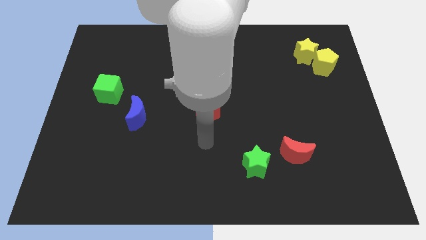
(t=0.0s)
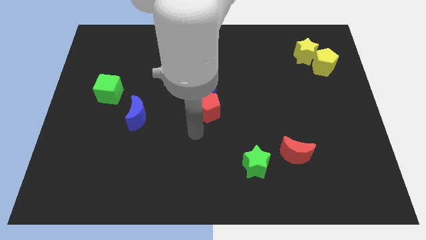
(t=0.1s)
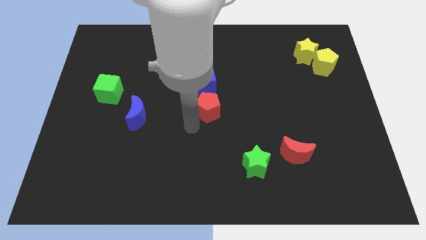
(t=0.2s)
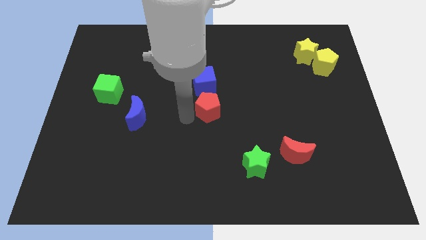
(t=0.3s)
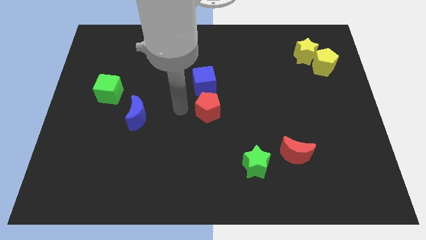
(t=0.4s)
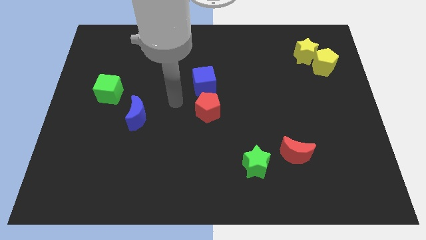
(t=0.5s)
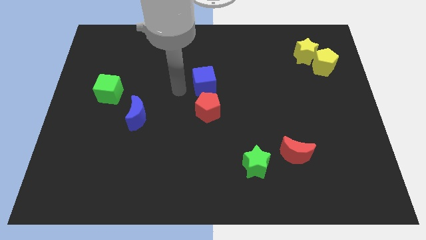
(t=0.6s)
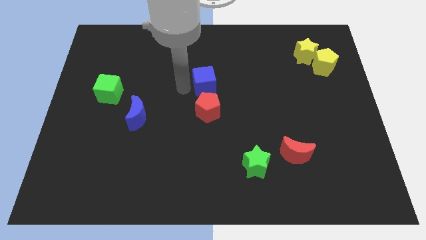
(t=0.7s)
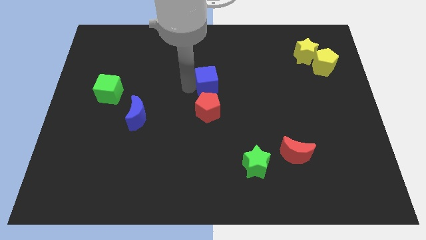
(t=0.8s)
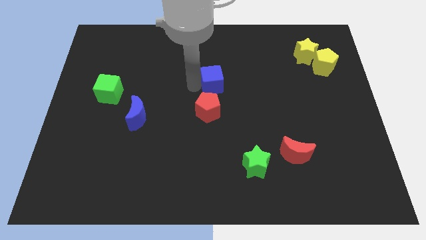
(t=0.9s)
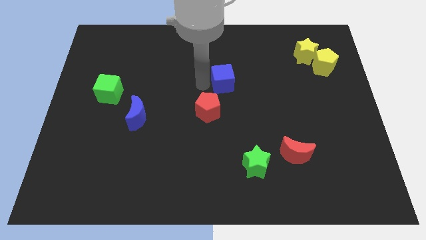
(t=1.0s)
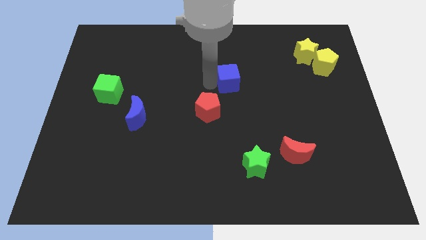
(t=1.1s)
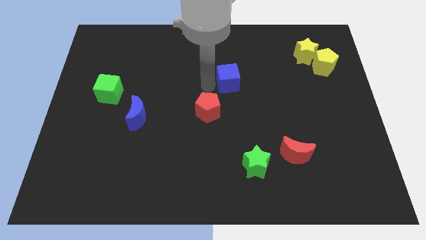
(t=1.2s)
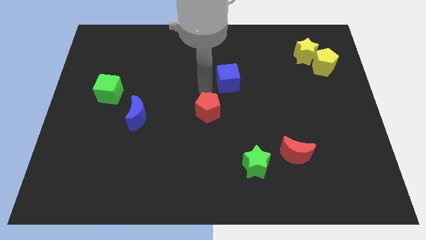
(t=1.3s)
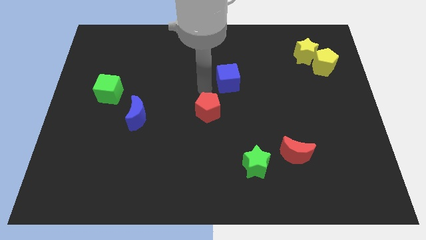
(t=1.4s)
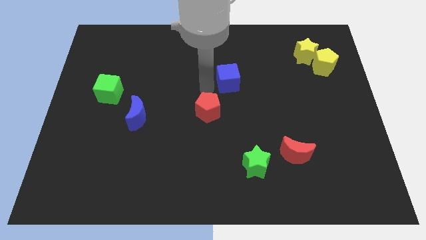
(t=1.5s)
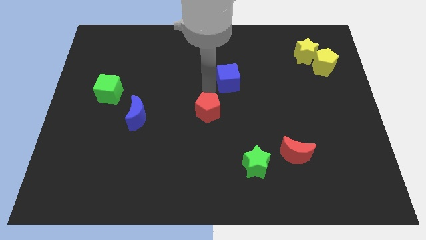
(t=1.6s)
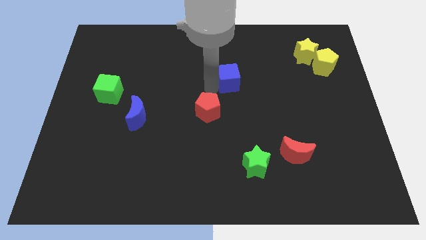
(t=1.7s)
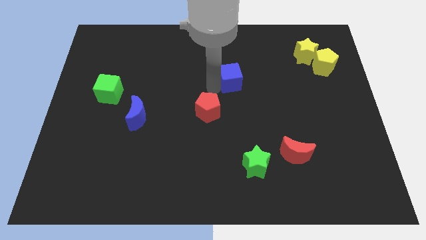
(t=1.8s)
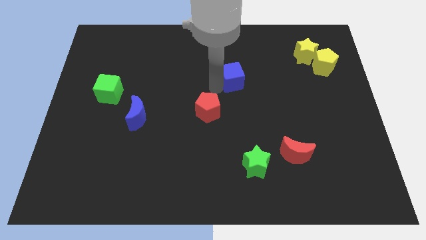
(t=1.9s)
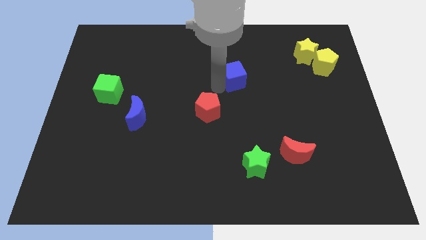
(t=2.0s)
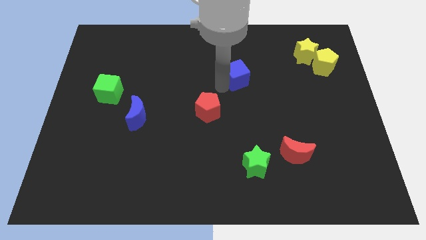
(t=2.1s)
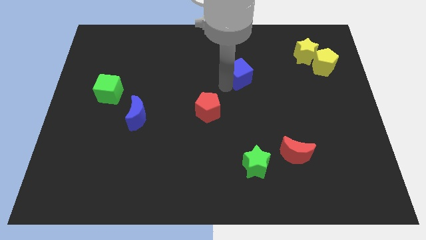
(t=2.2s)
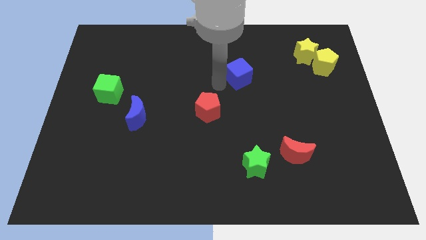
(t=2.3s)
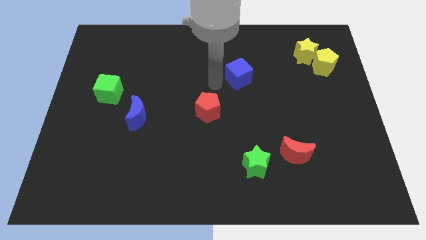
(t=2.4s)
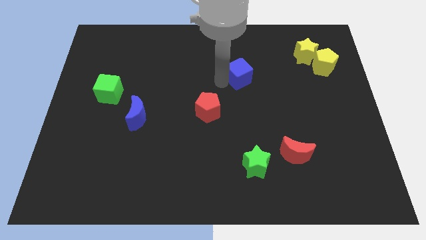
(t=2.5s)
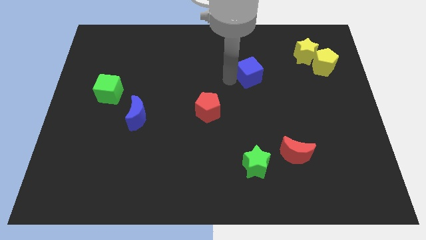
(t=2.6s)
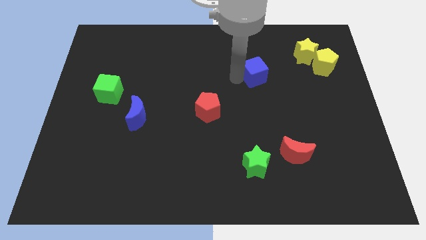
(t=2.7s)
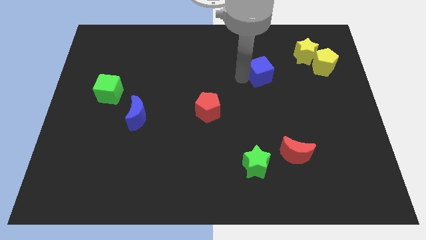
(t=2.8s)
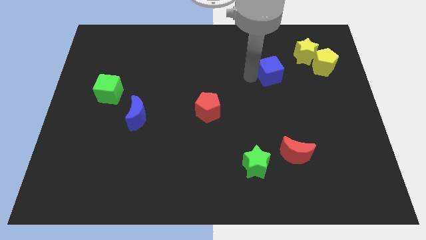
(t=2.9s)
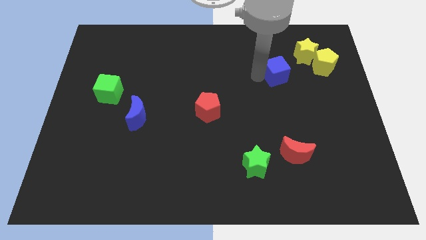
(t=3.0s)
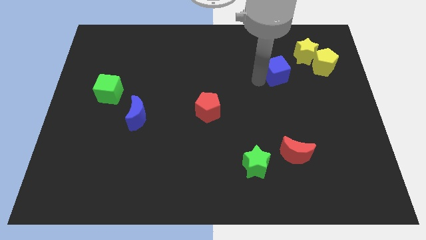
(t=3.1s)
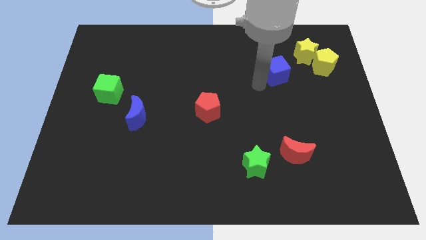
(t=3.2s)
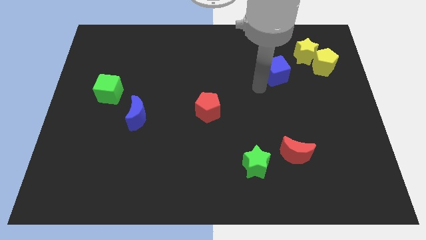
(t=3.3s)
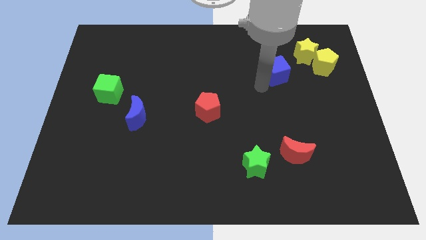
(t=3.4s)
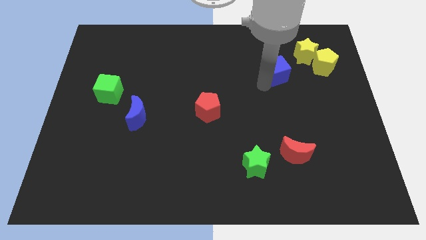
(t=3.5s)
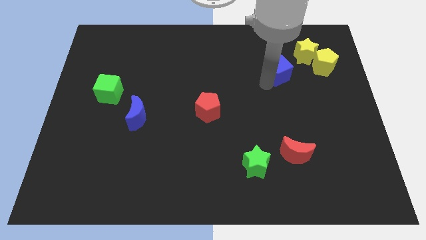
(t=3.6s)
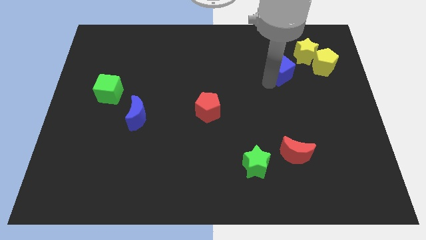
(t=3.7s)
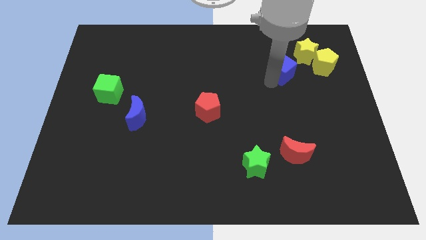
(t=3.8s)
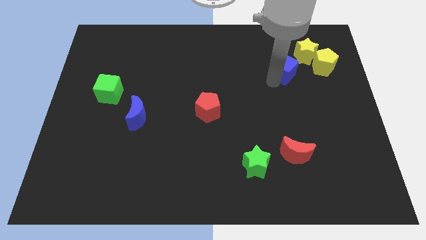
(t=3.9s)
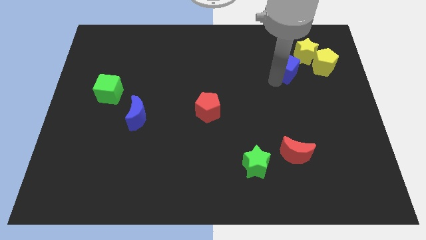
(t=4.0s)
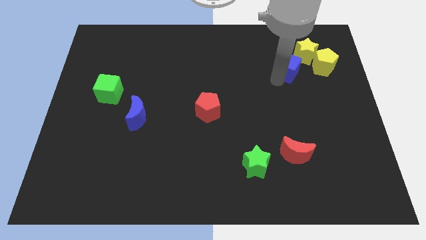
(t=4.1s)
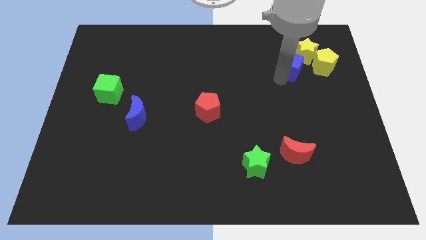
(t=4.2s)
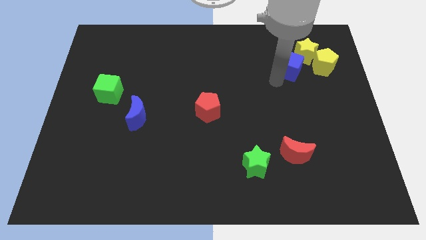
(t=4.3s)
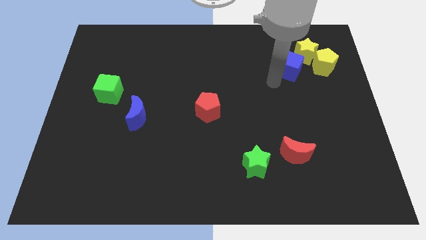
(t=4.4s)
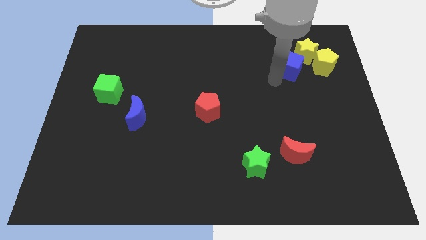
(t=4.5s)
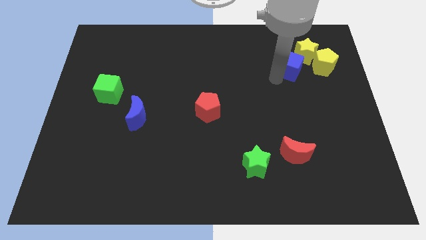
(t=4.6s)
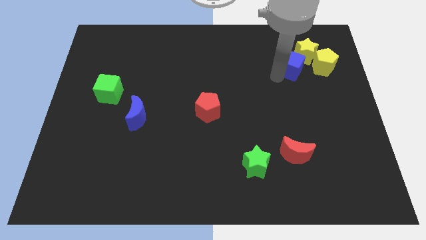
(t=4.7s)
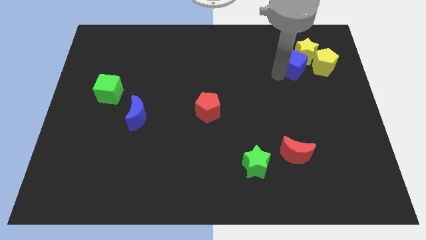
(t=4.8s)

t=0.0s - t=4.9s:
slide the blue cube towards the yellow star

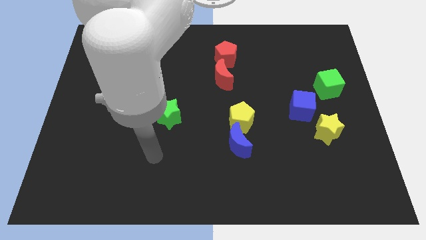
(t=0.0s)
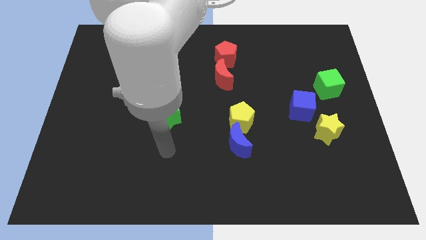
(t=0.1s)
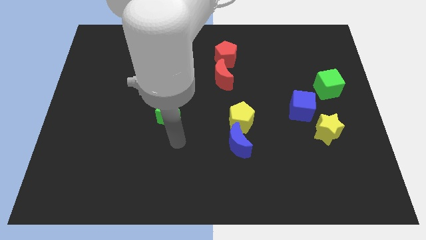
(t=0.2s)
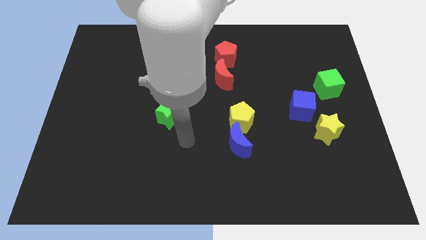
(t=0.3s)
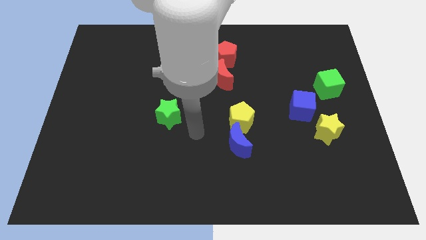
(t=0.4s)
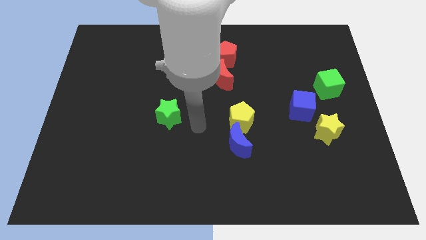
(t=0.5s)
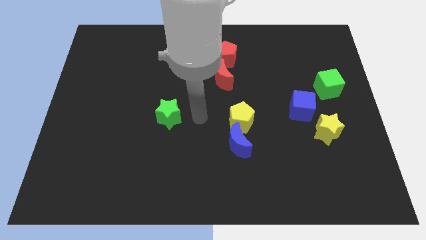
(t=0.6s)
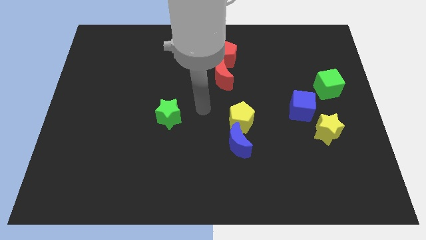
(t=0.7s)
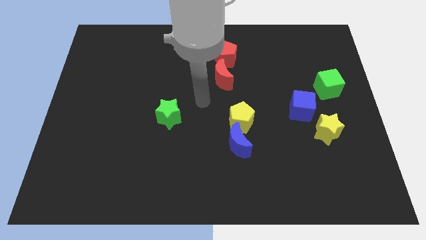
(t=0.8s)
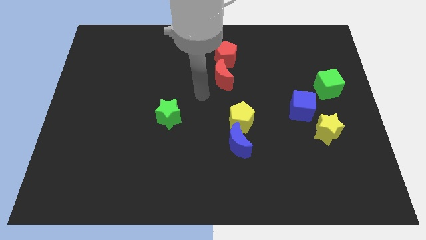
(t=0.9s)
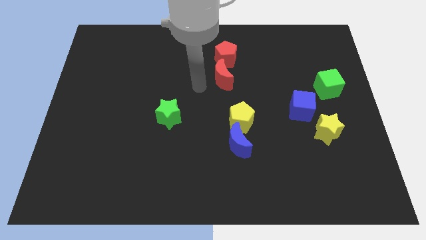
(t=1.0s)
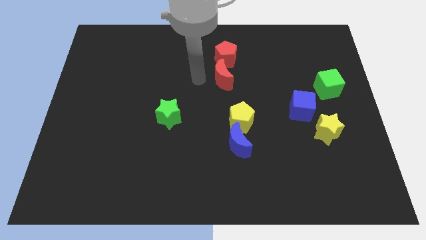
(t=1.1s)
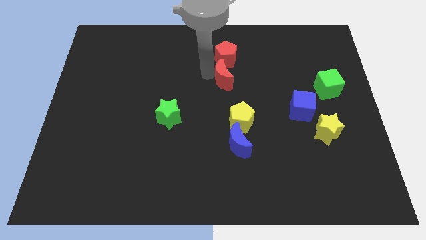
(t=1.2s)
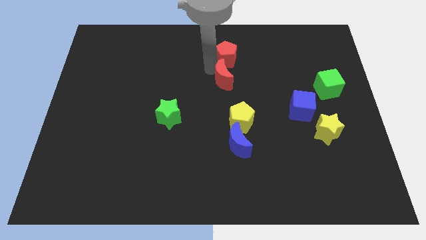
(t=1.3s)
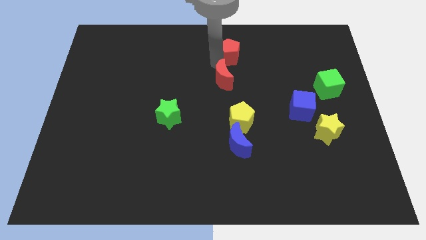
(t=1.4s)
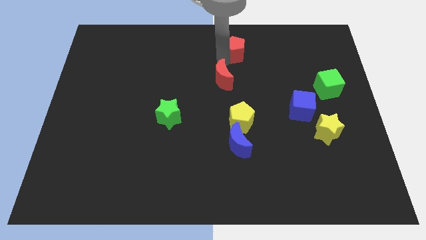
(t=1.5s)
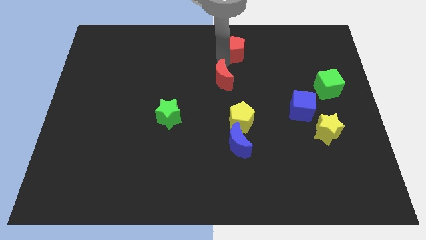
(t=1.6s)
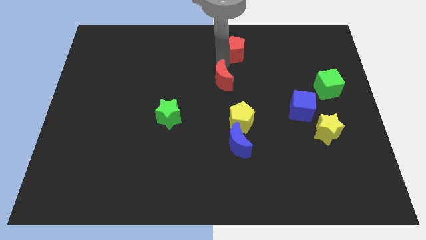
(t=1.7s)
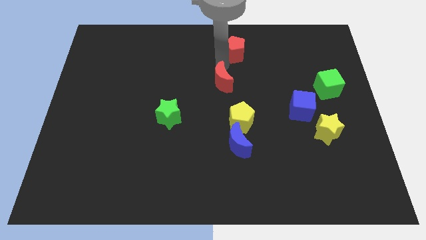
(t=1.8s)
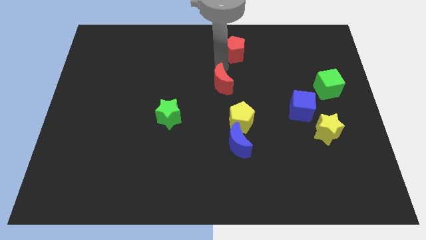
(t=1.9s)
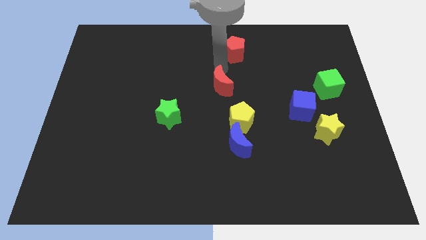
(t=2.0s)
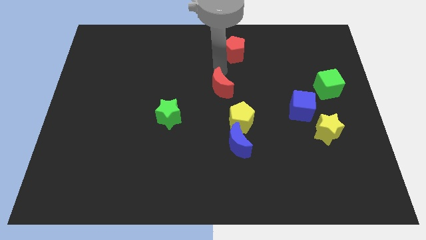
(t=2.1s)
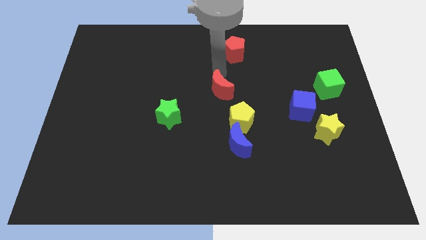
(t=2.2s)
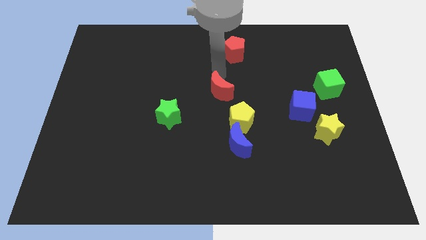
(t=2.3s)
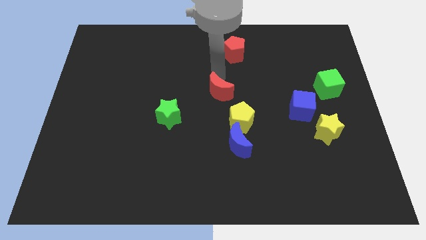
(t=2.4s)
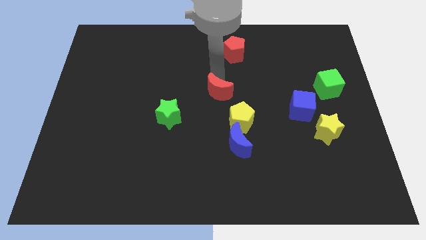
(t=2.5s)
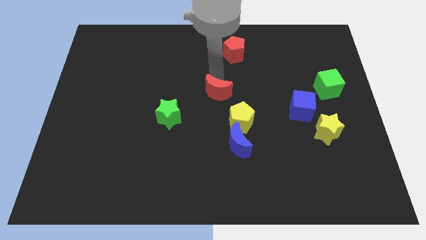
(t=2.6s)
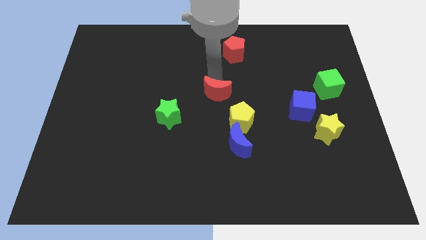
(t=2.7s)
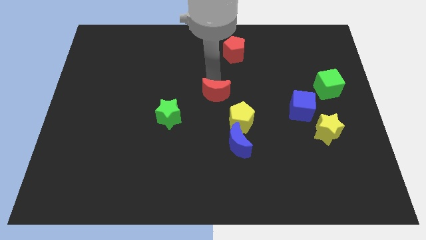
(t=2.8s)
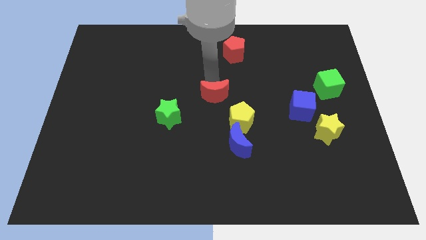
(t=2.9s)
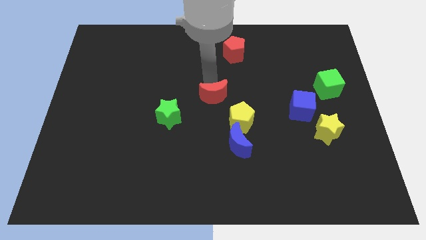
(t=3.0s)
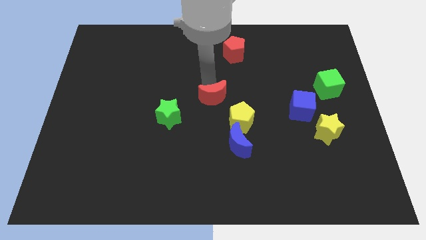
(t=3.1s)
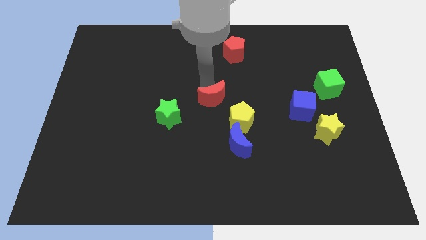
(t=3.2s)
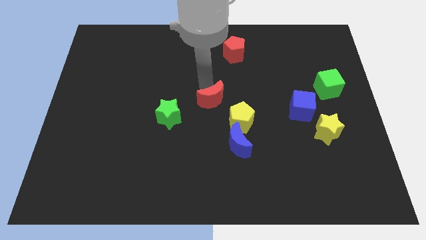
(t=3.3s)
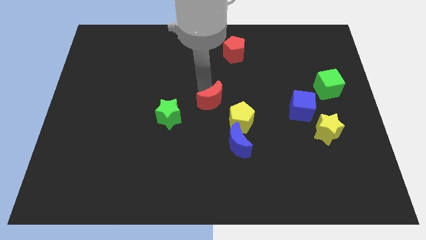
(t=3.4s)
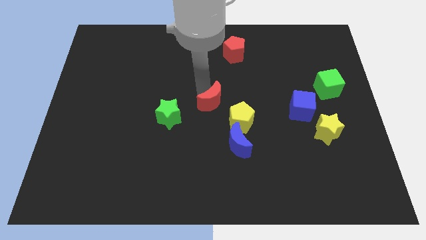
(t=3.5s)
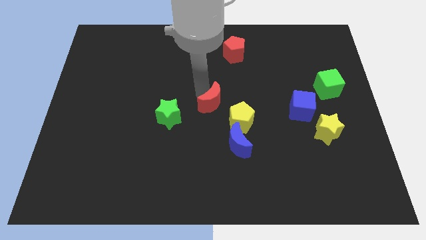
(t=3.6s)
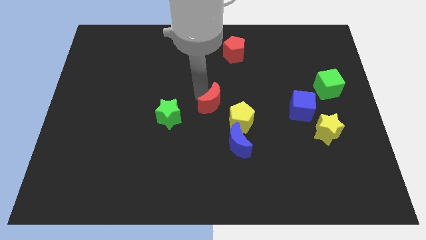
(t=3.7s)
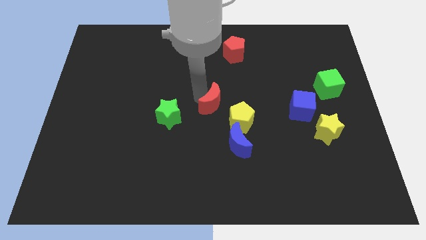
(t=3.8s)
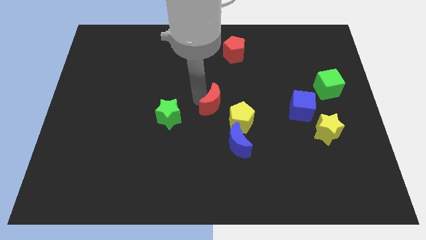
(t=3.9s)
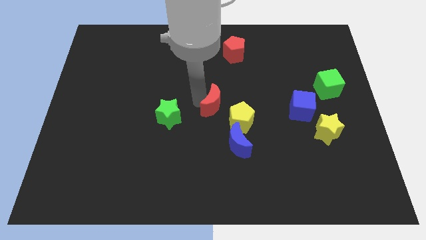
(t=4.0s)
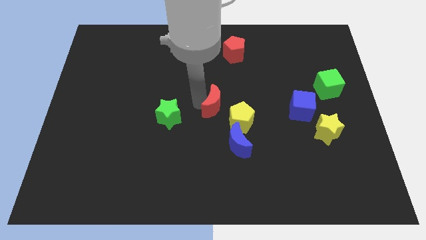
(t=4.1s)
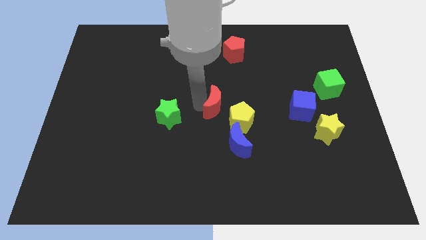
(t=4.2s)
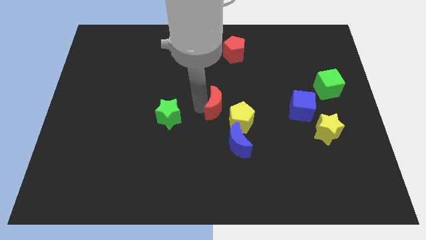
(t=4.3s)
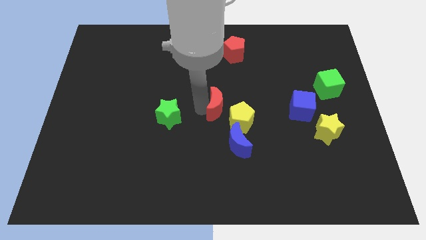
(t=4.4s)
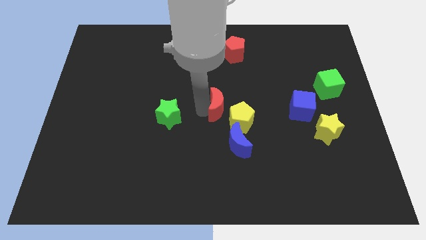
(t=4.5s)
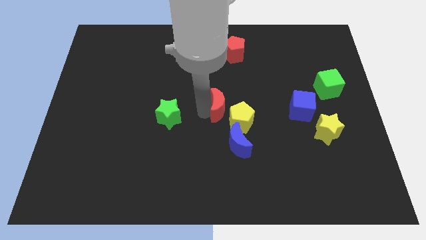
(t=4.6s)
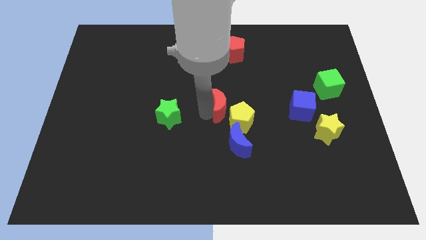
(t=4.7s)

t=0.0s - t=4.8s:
move the red moon to the yellow pentagon
